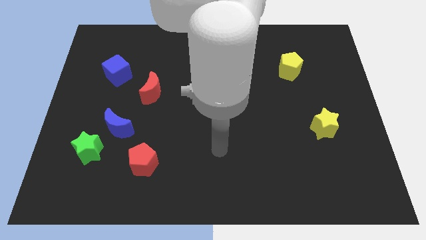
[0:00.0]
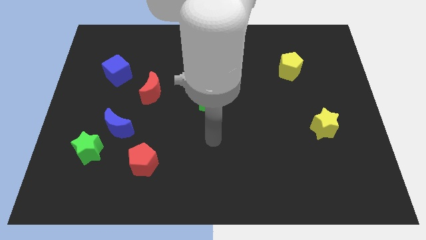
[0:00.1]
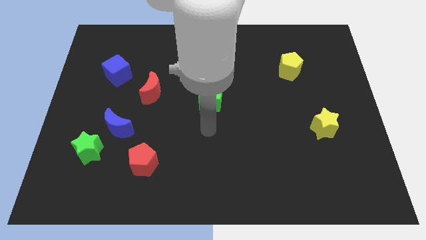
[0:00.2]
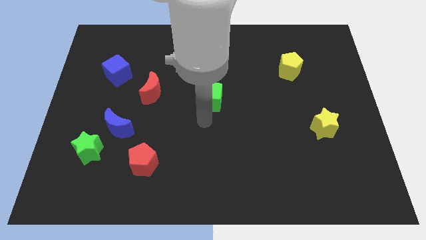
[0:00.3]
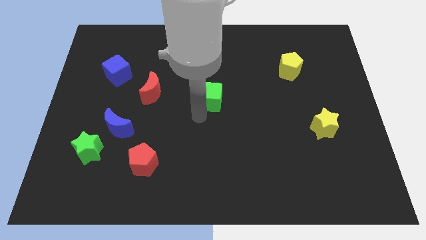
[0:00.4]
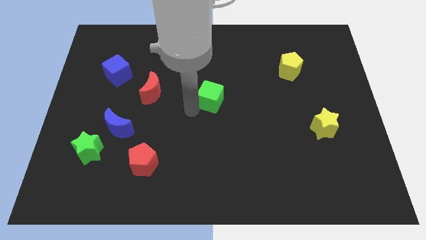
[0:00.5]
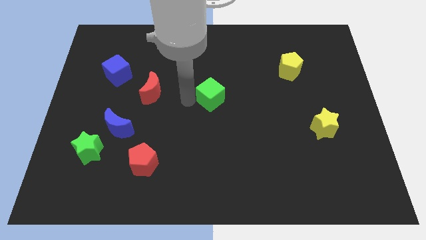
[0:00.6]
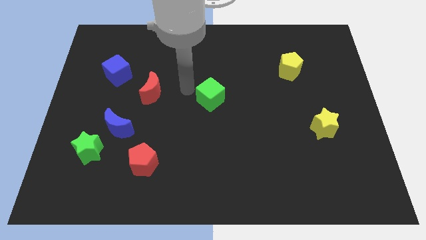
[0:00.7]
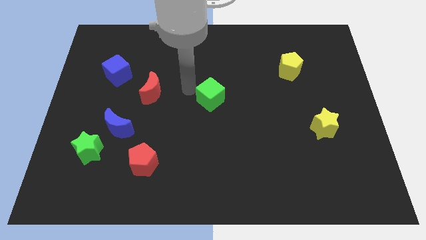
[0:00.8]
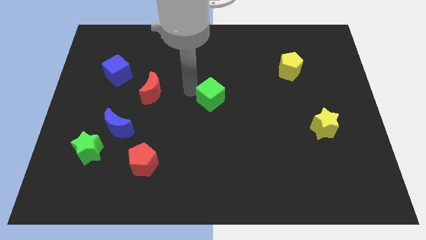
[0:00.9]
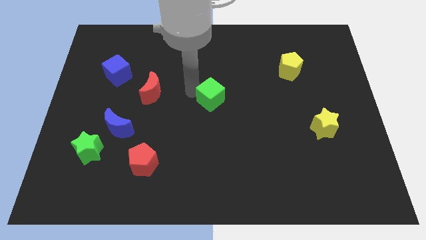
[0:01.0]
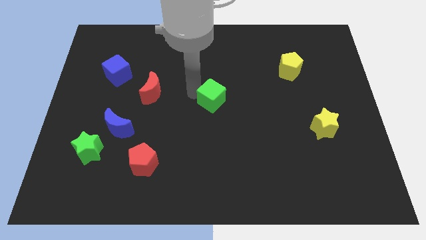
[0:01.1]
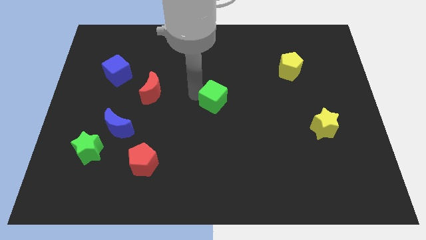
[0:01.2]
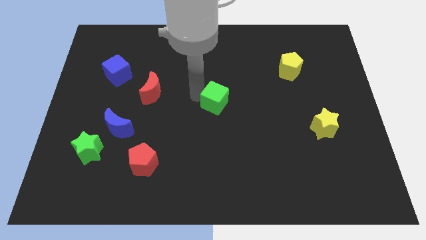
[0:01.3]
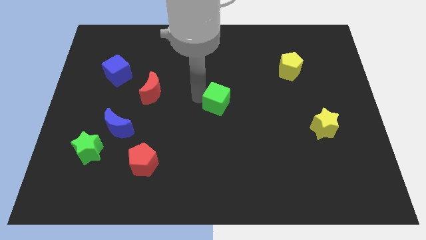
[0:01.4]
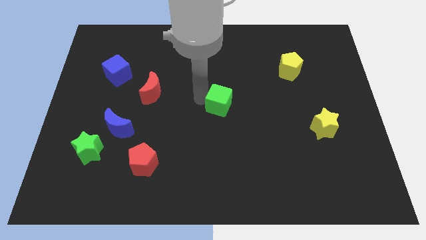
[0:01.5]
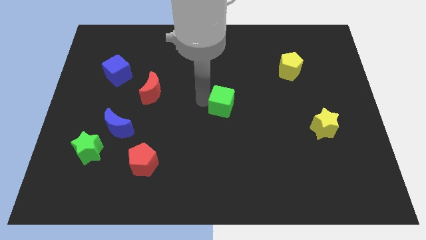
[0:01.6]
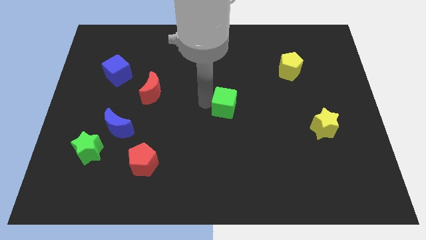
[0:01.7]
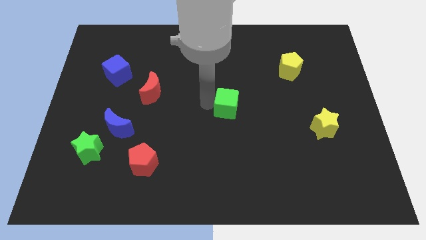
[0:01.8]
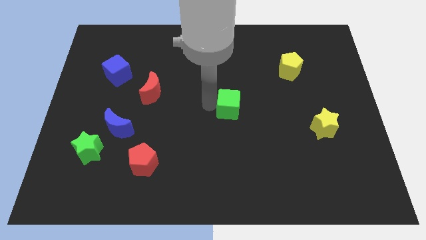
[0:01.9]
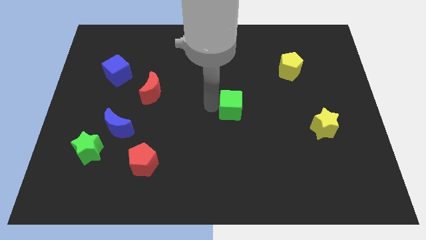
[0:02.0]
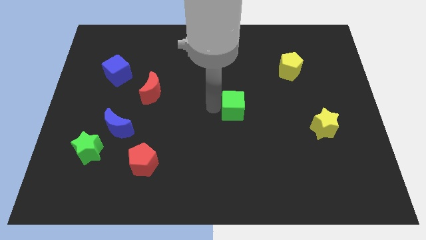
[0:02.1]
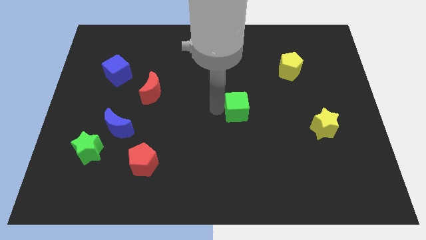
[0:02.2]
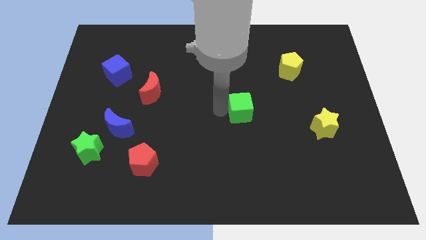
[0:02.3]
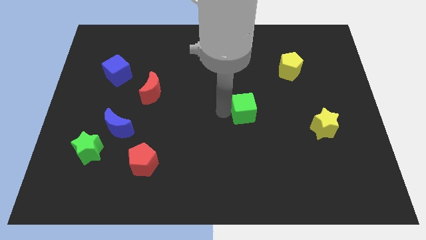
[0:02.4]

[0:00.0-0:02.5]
slightly push the green cube to the right

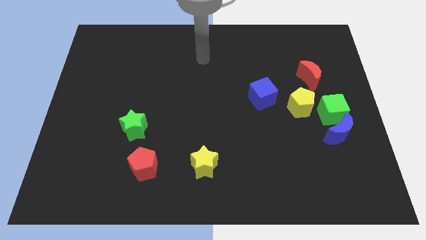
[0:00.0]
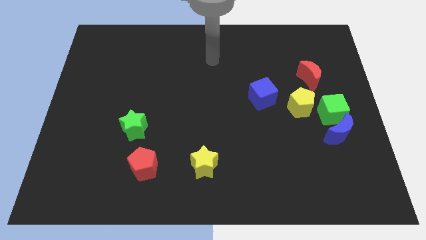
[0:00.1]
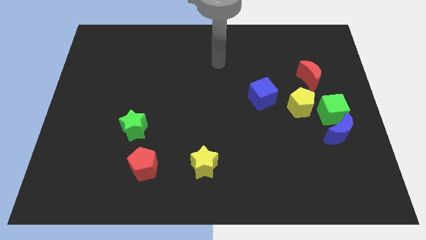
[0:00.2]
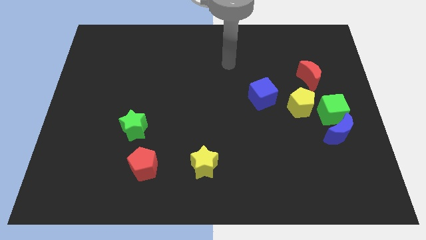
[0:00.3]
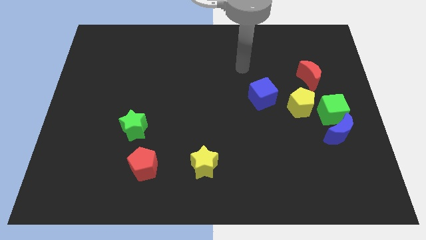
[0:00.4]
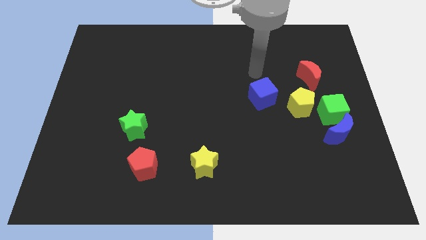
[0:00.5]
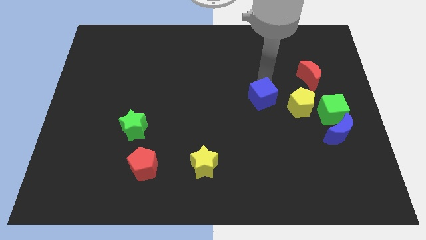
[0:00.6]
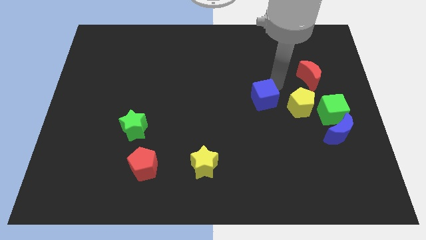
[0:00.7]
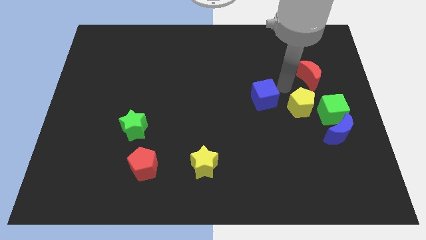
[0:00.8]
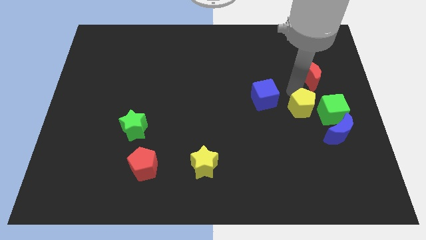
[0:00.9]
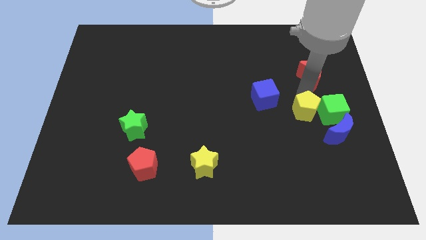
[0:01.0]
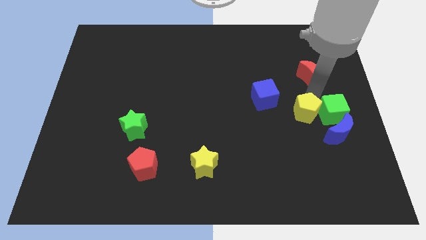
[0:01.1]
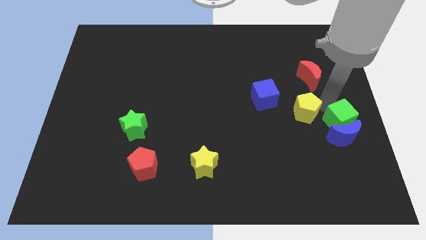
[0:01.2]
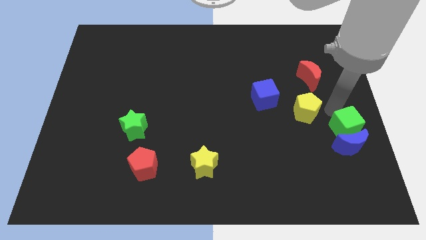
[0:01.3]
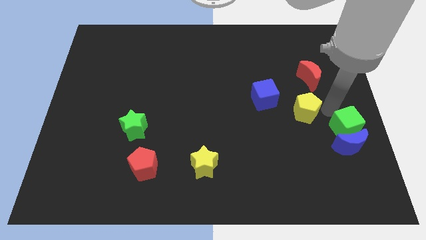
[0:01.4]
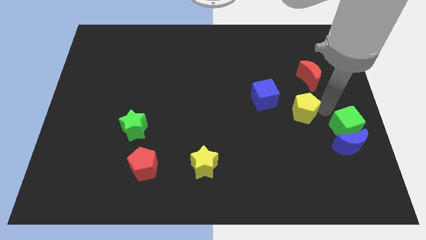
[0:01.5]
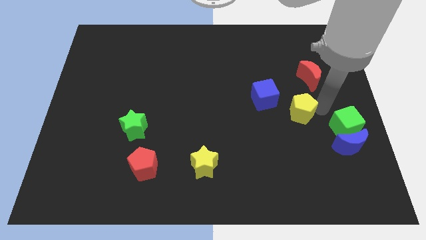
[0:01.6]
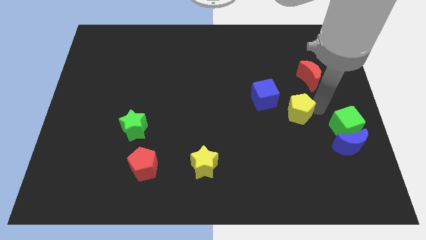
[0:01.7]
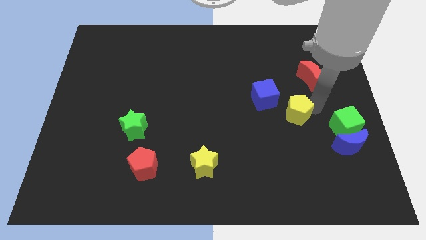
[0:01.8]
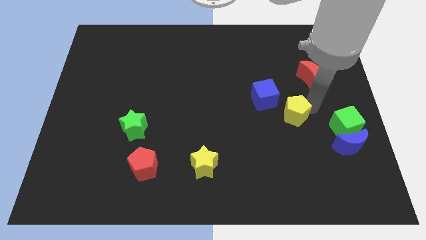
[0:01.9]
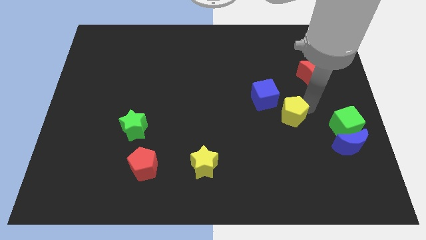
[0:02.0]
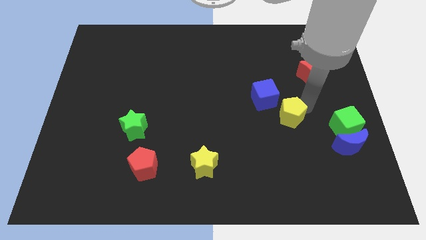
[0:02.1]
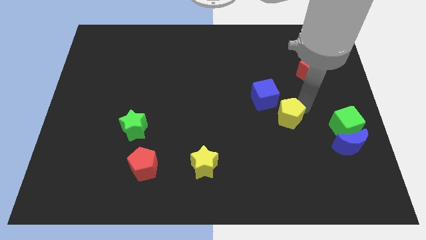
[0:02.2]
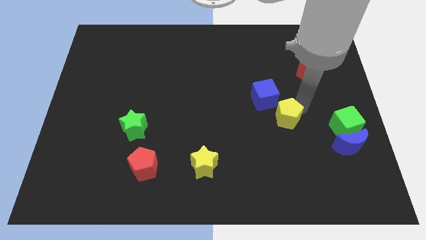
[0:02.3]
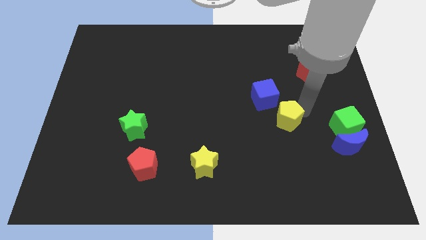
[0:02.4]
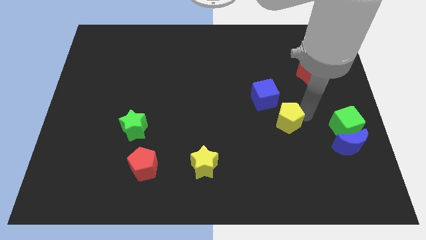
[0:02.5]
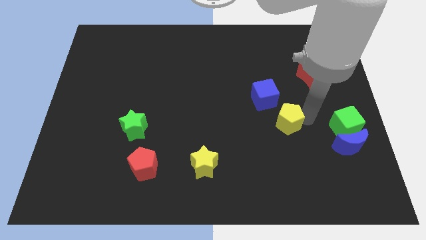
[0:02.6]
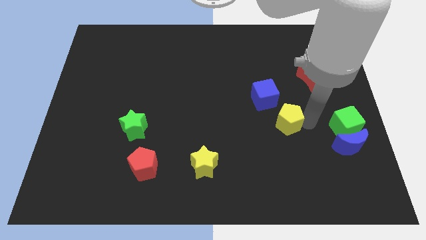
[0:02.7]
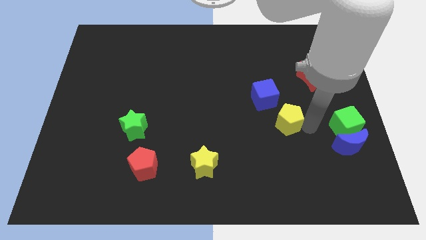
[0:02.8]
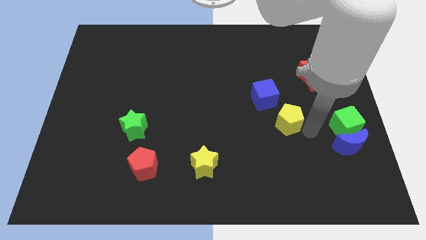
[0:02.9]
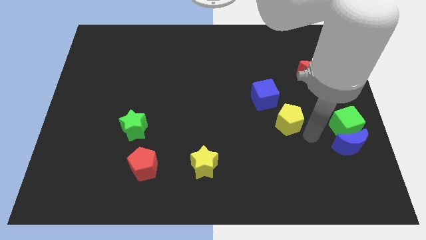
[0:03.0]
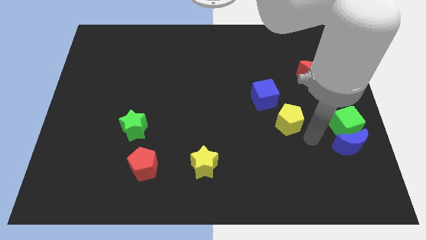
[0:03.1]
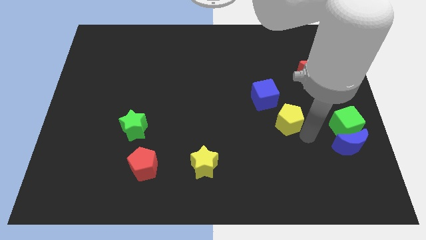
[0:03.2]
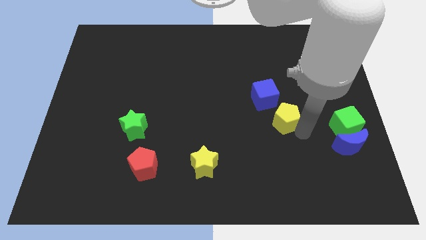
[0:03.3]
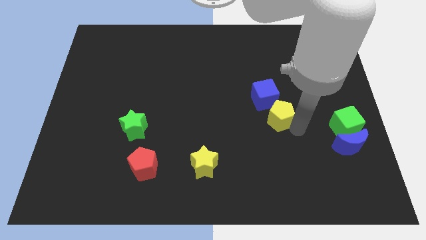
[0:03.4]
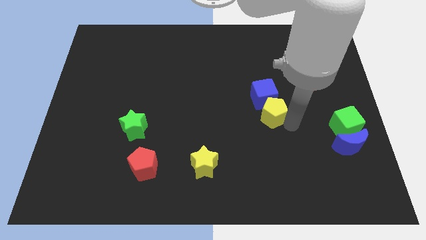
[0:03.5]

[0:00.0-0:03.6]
slightly push the yellow pentagon left

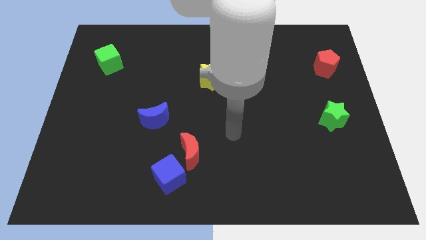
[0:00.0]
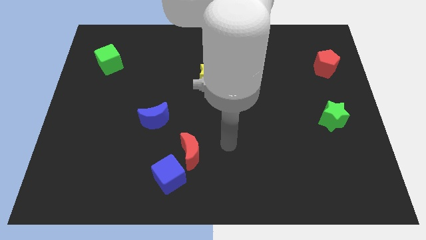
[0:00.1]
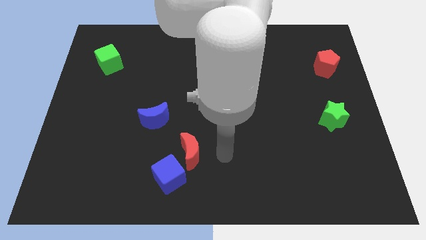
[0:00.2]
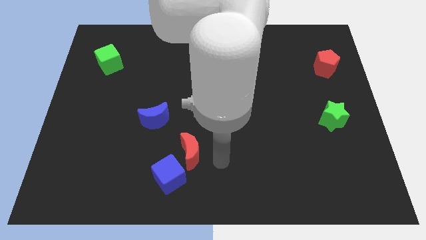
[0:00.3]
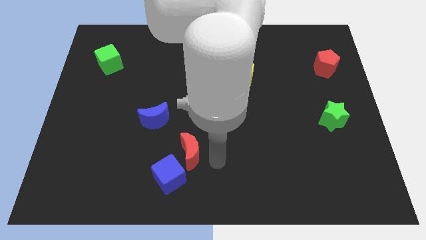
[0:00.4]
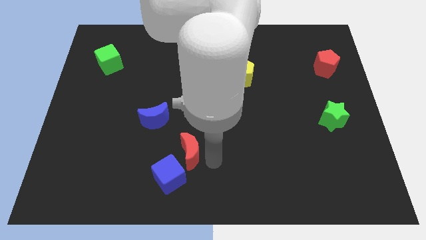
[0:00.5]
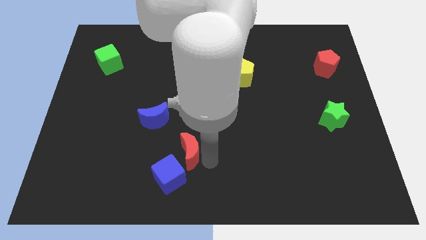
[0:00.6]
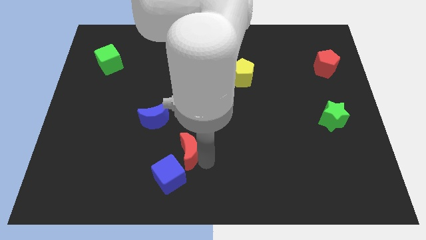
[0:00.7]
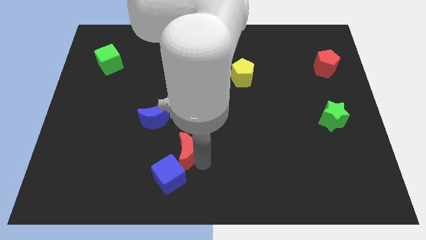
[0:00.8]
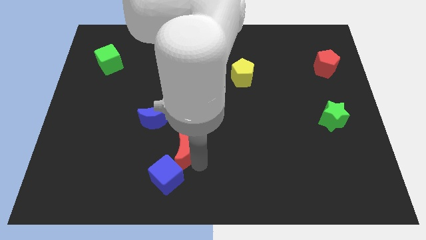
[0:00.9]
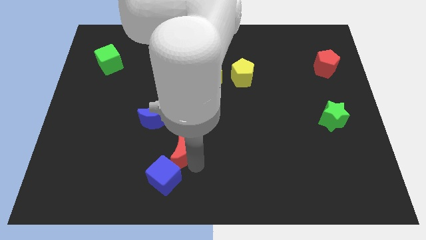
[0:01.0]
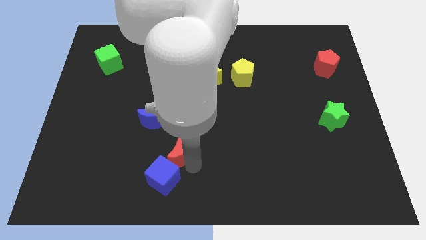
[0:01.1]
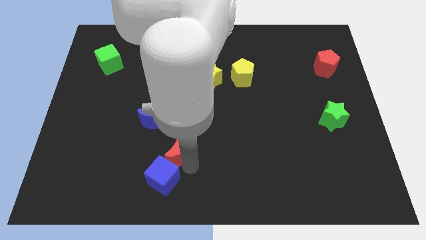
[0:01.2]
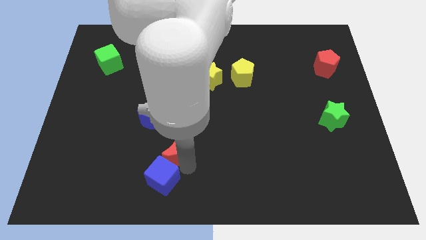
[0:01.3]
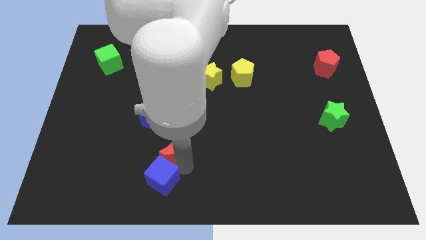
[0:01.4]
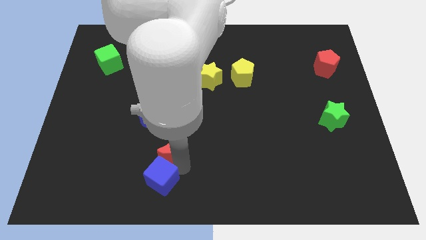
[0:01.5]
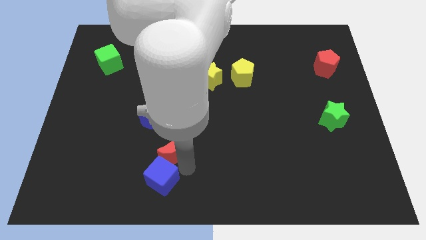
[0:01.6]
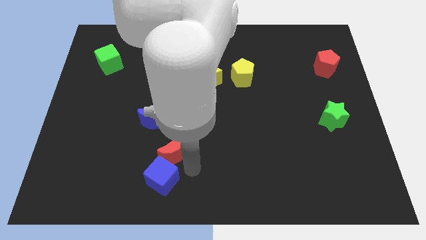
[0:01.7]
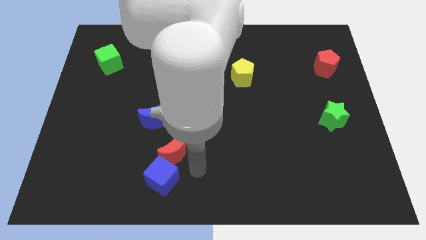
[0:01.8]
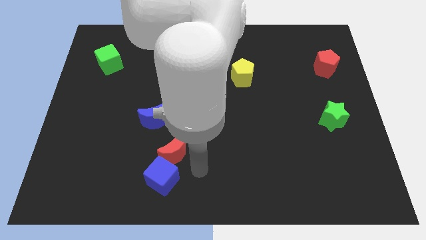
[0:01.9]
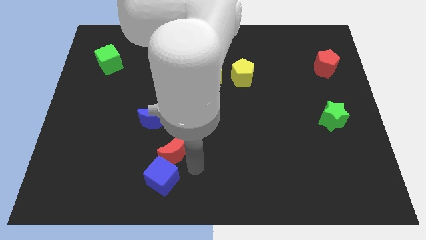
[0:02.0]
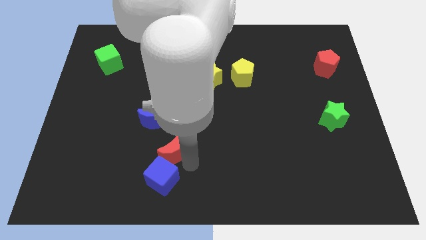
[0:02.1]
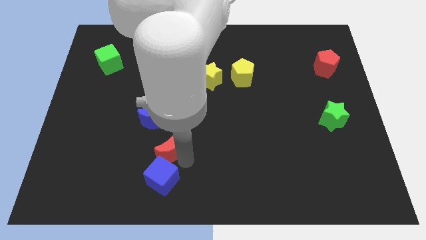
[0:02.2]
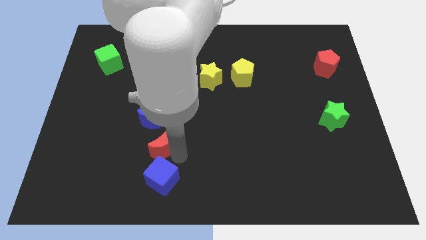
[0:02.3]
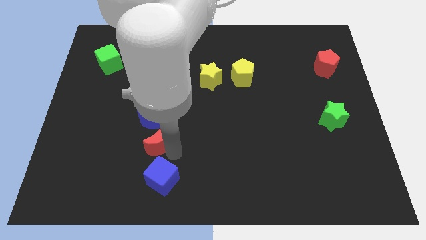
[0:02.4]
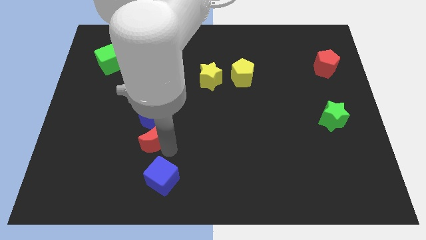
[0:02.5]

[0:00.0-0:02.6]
slide the red moon diagonally up and to the left a bit
